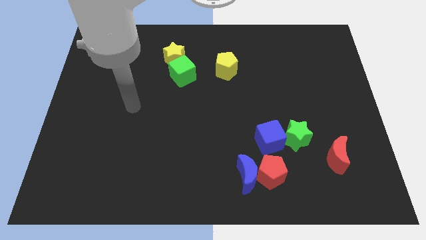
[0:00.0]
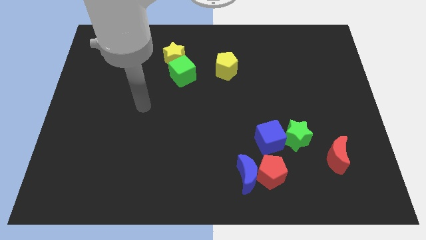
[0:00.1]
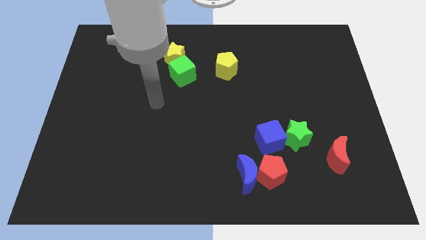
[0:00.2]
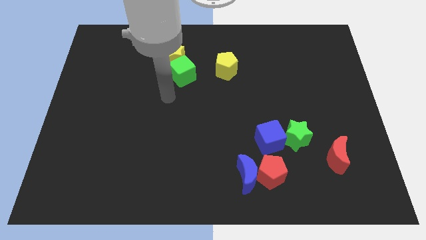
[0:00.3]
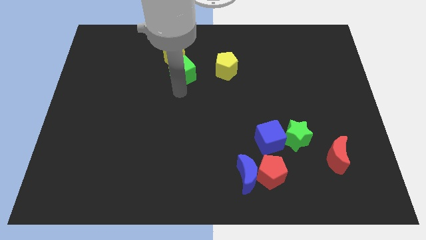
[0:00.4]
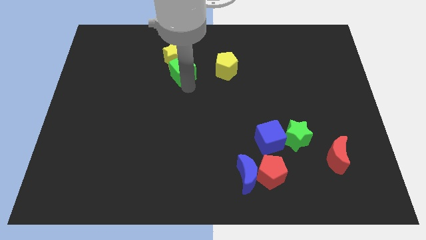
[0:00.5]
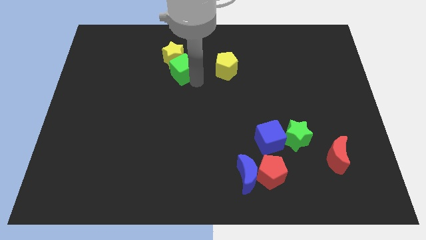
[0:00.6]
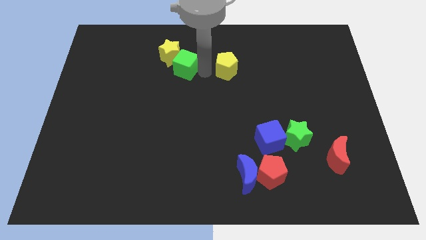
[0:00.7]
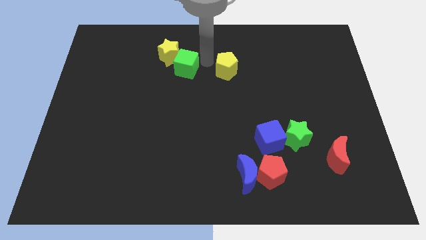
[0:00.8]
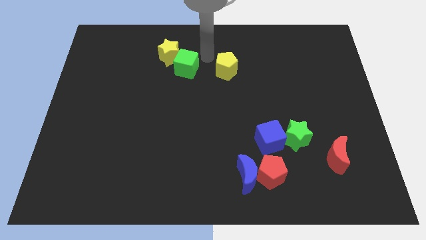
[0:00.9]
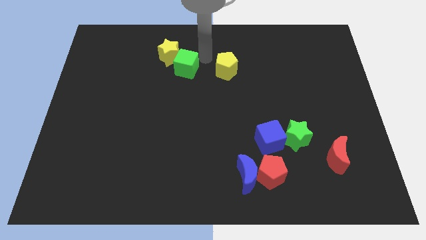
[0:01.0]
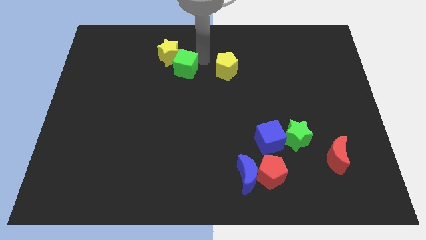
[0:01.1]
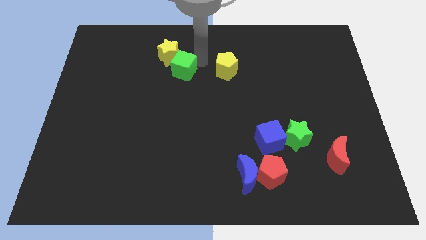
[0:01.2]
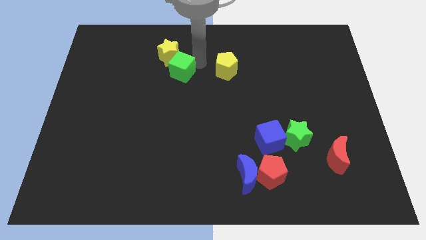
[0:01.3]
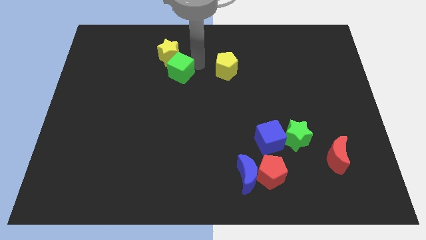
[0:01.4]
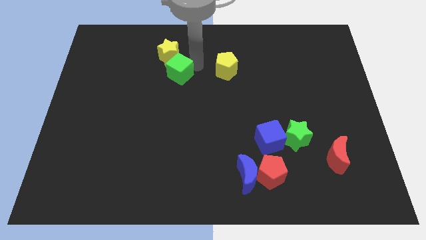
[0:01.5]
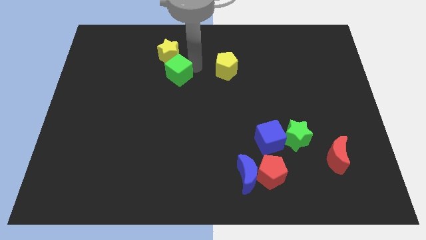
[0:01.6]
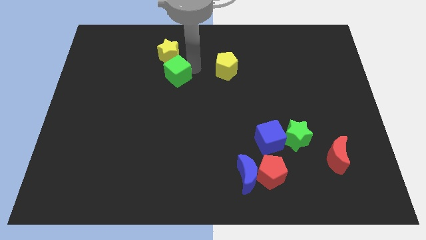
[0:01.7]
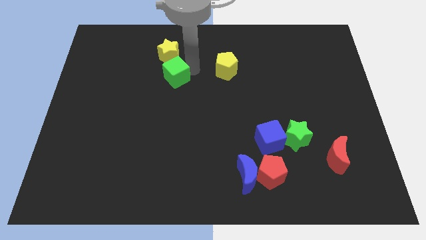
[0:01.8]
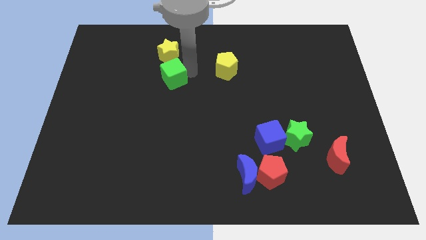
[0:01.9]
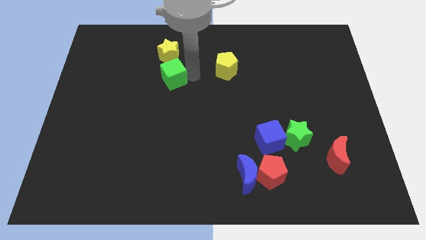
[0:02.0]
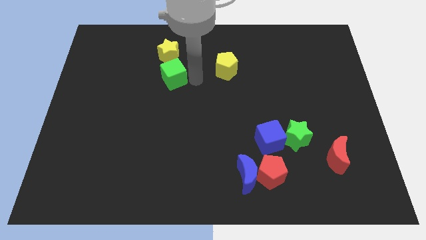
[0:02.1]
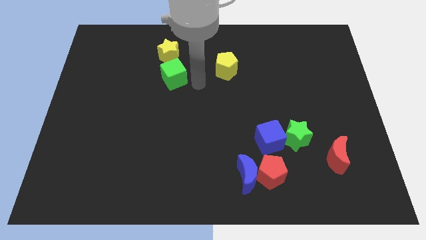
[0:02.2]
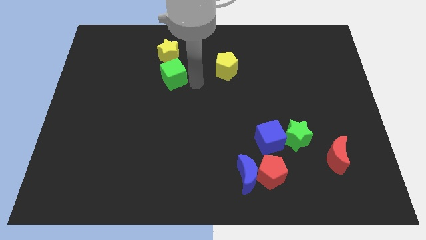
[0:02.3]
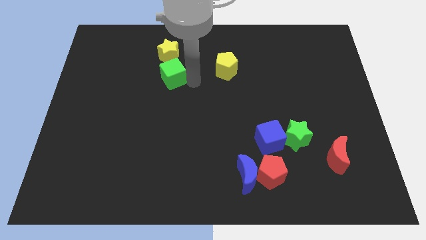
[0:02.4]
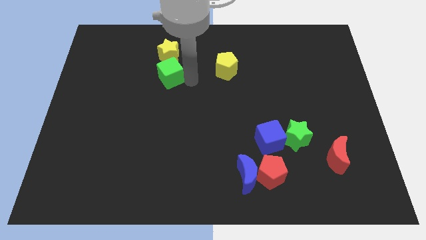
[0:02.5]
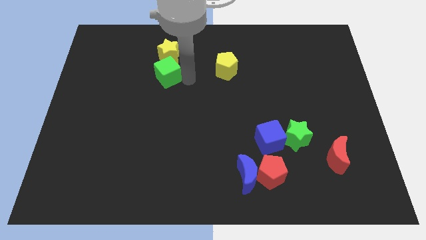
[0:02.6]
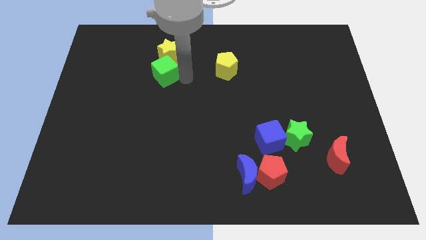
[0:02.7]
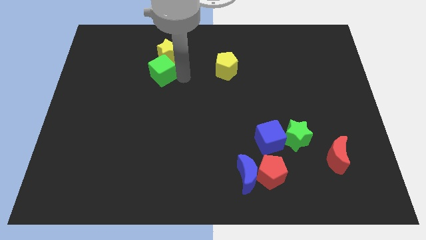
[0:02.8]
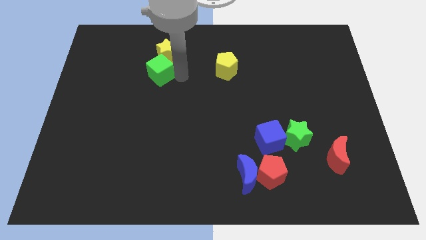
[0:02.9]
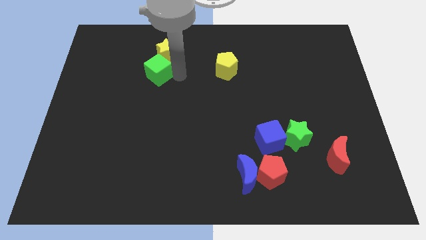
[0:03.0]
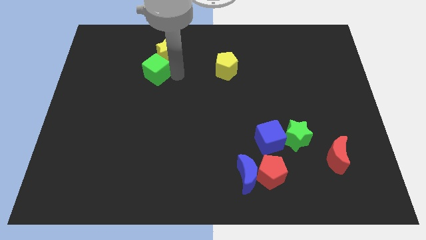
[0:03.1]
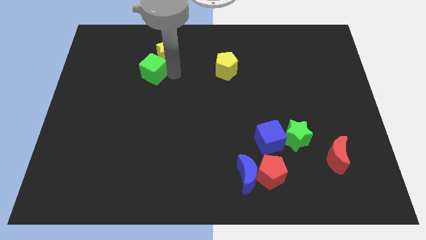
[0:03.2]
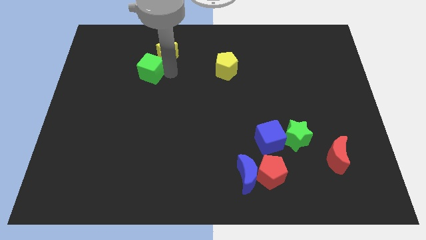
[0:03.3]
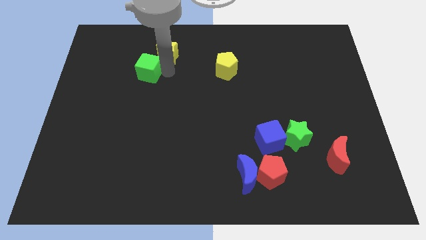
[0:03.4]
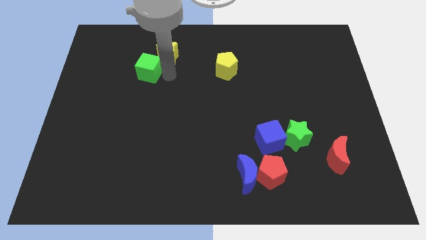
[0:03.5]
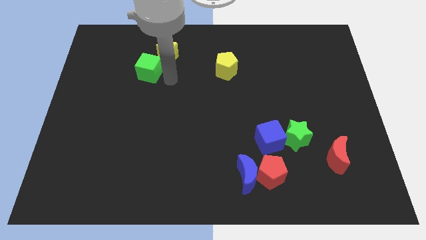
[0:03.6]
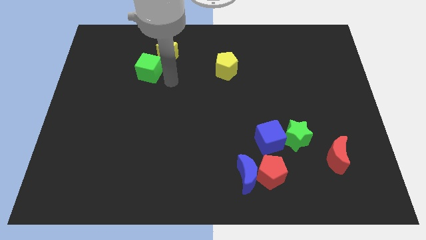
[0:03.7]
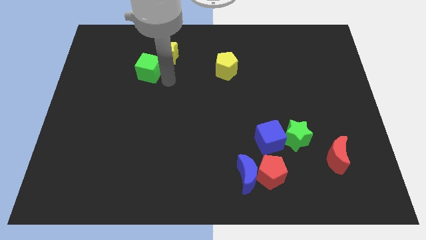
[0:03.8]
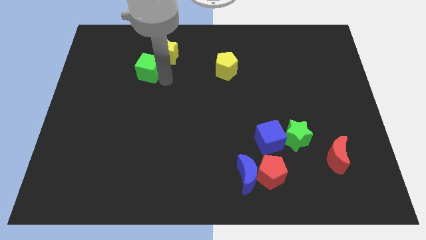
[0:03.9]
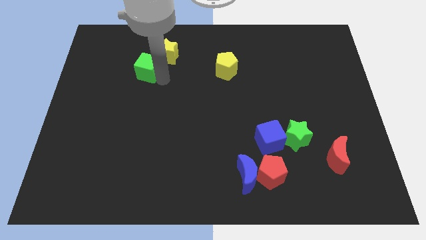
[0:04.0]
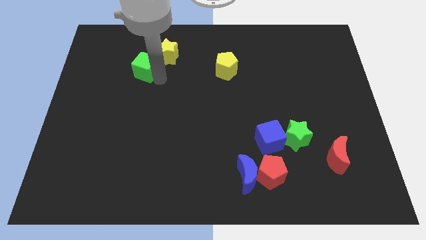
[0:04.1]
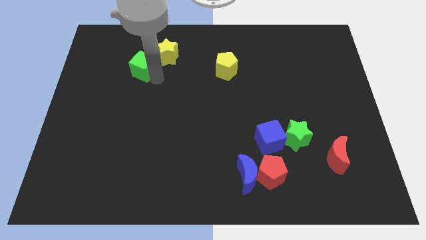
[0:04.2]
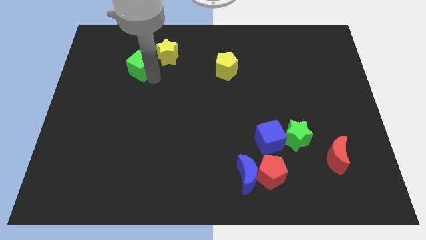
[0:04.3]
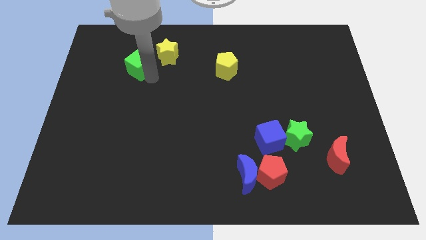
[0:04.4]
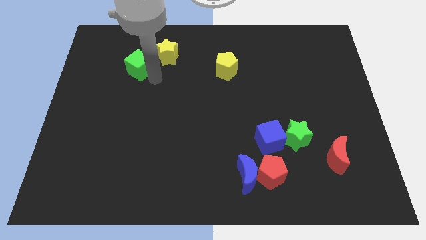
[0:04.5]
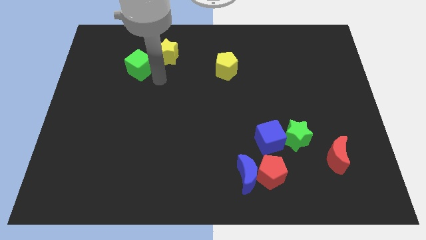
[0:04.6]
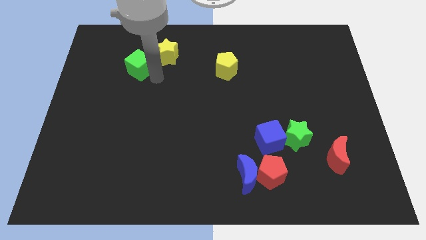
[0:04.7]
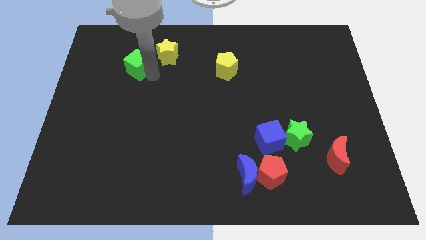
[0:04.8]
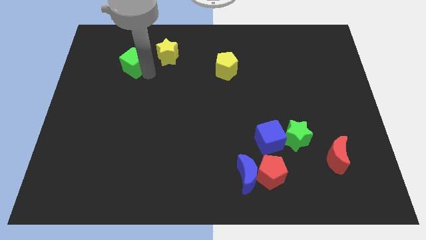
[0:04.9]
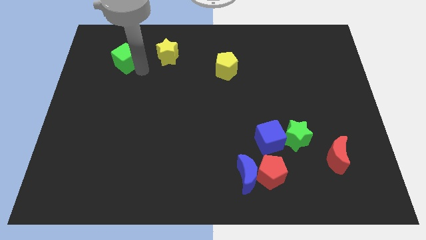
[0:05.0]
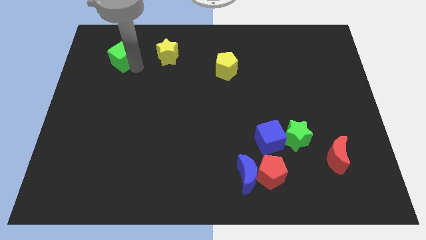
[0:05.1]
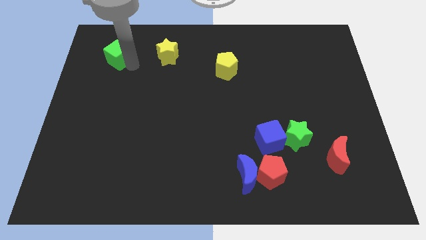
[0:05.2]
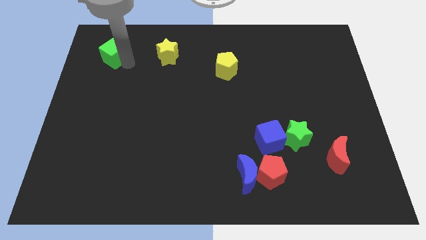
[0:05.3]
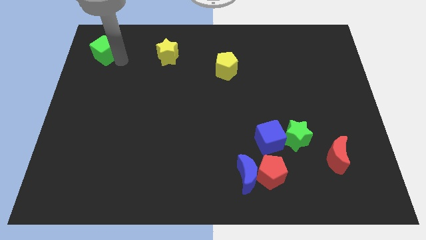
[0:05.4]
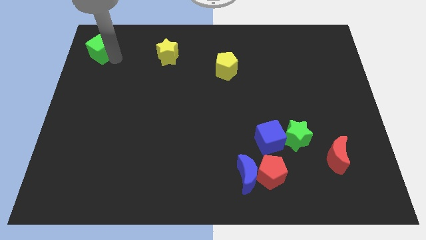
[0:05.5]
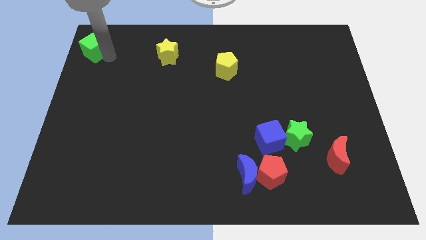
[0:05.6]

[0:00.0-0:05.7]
move the green cube to the upper left corner

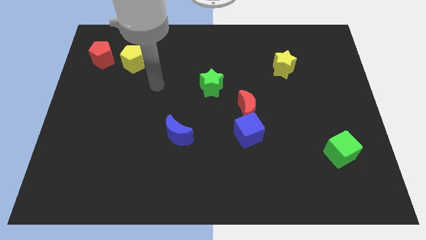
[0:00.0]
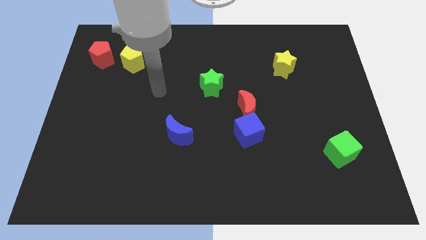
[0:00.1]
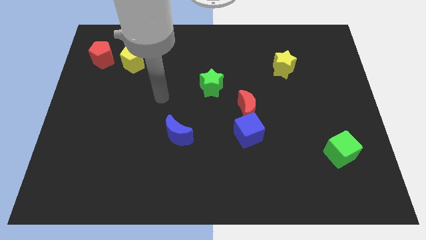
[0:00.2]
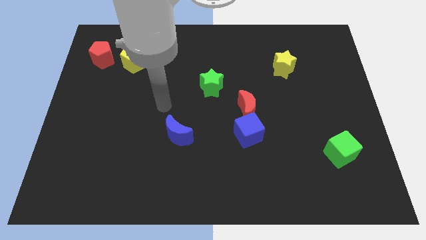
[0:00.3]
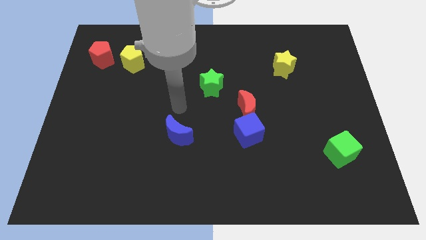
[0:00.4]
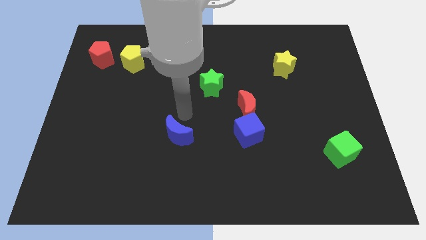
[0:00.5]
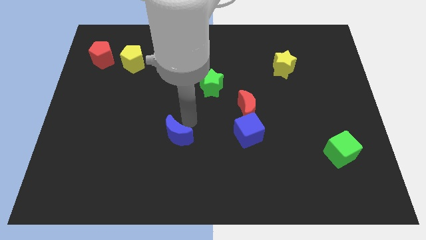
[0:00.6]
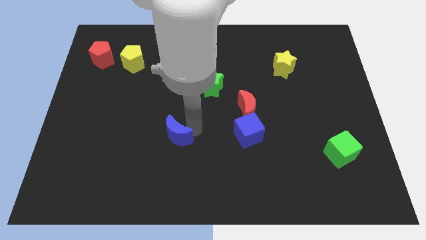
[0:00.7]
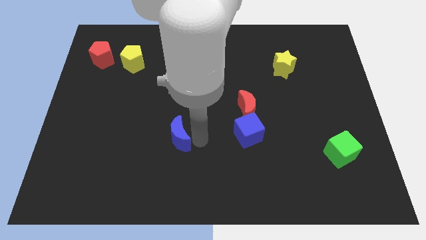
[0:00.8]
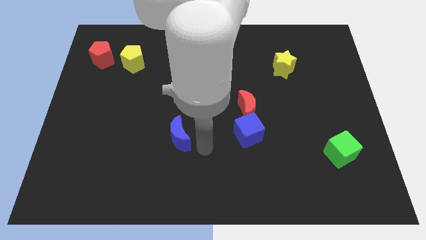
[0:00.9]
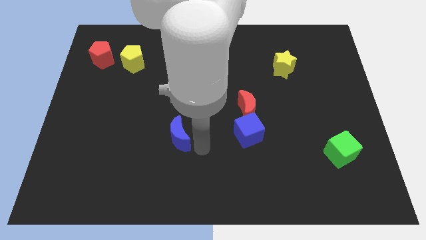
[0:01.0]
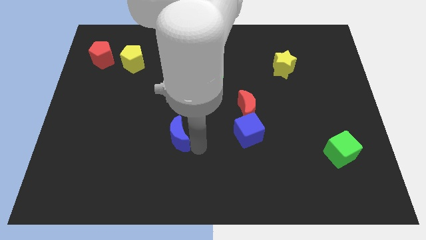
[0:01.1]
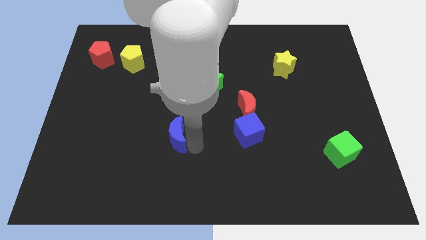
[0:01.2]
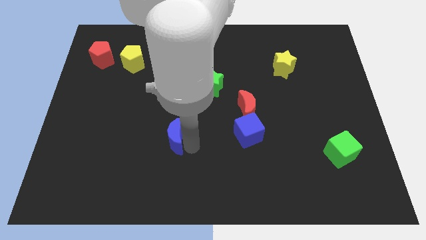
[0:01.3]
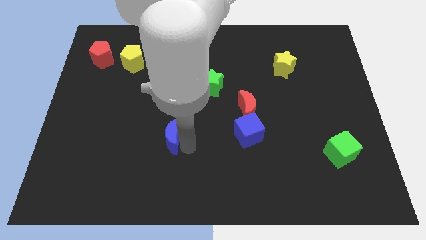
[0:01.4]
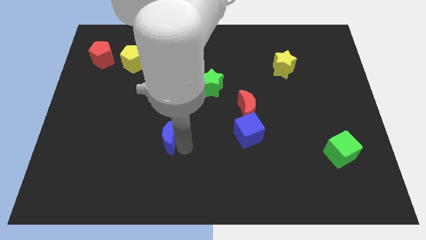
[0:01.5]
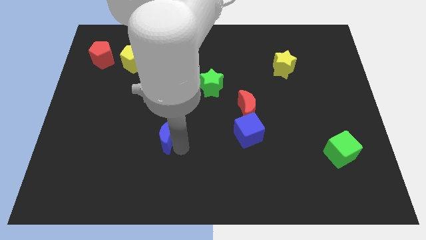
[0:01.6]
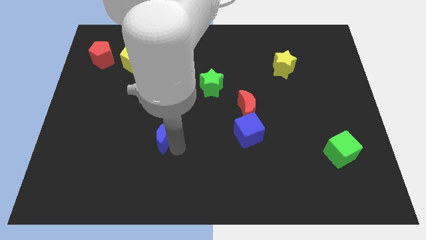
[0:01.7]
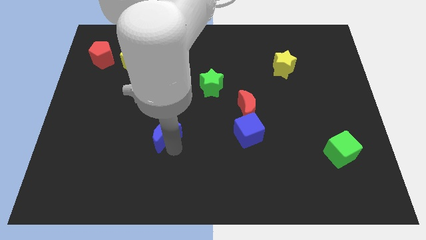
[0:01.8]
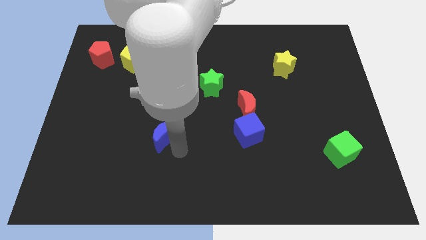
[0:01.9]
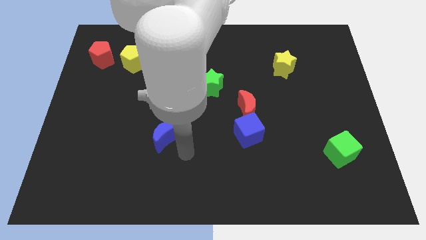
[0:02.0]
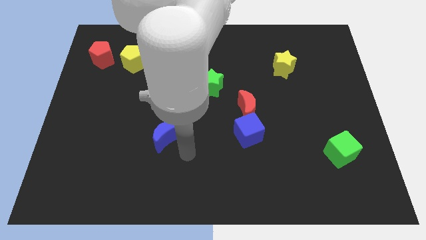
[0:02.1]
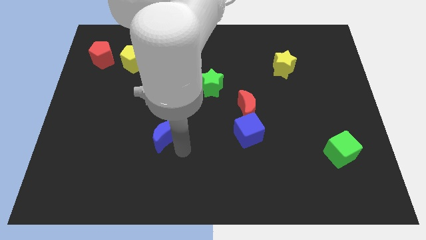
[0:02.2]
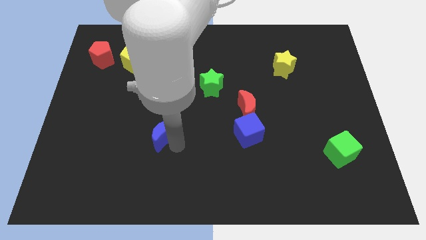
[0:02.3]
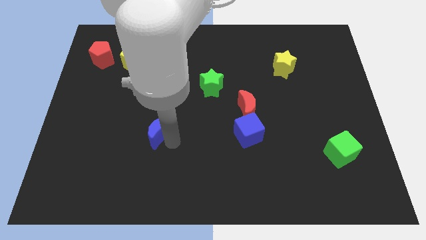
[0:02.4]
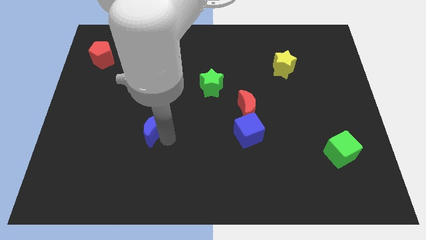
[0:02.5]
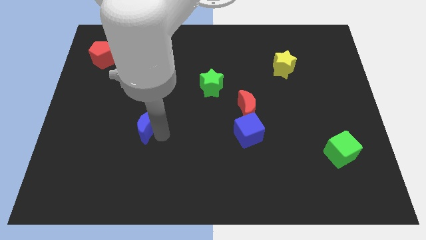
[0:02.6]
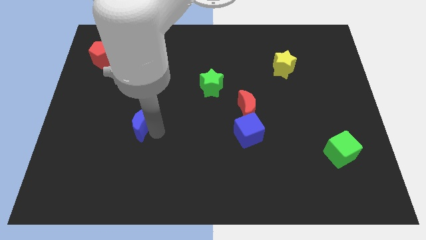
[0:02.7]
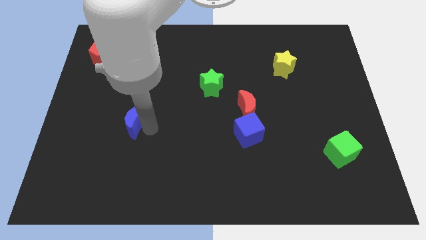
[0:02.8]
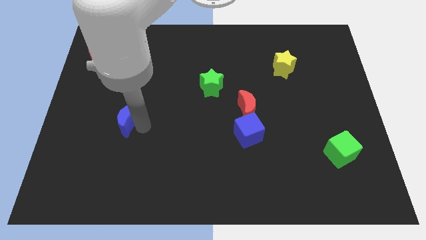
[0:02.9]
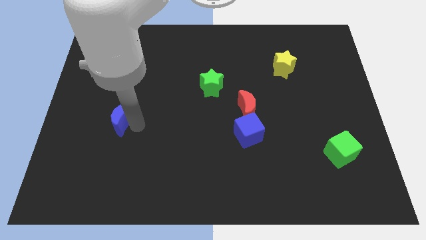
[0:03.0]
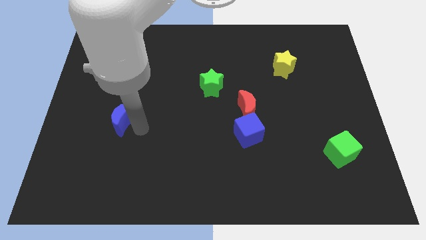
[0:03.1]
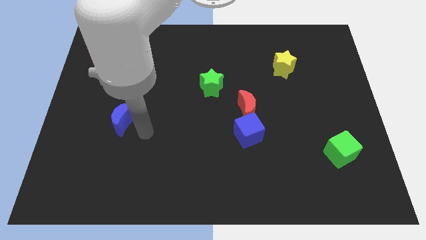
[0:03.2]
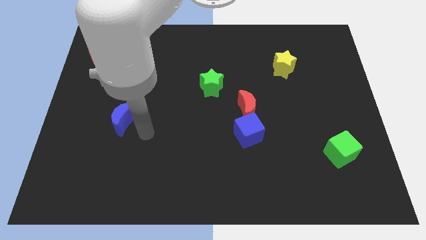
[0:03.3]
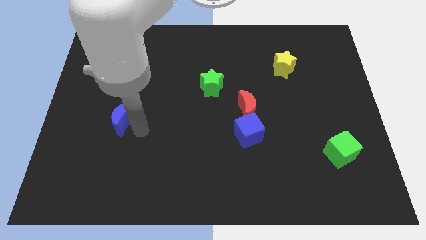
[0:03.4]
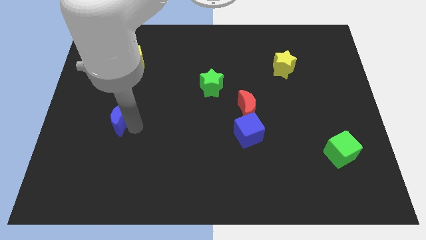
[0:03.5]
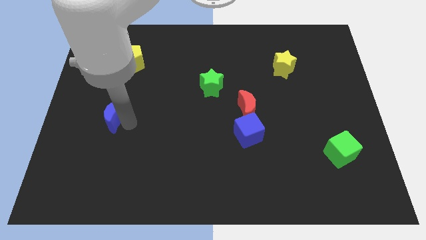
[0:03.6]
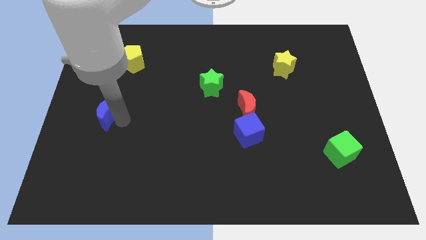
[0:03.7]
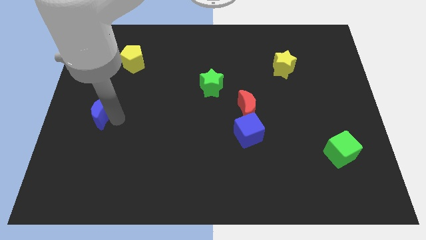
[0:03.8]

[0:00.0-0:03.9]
slide the blue moon to the center left
